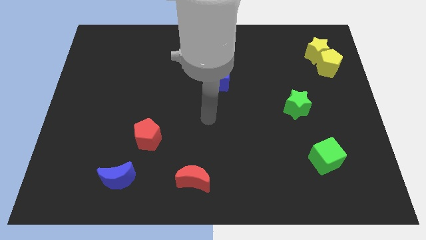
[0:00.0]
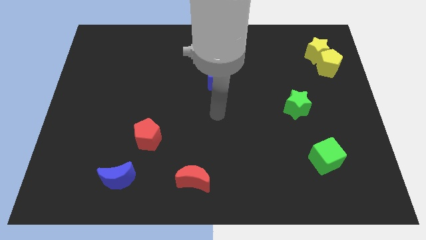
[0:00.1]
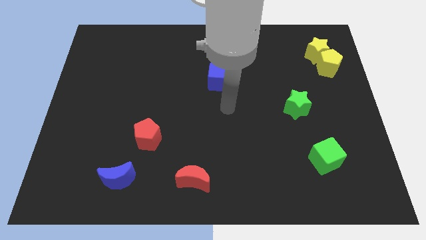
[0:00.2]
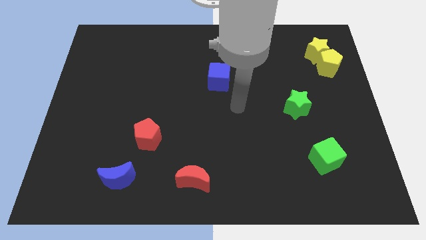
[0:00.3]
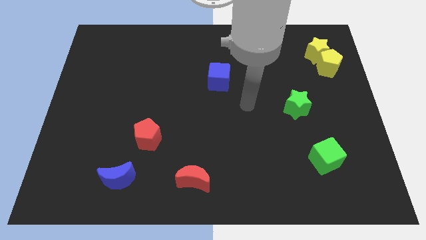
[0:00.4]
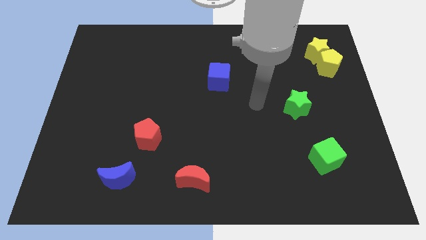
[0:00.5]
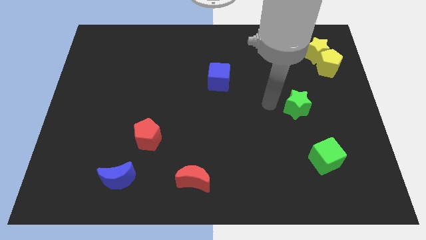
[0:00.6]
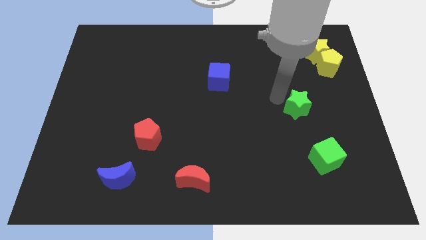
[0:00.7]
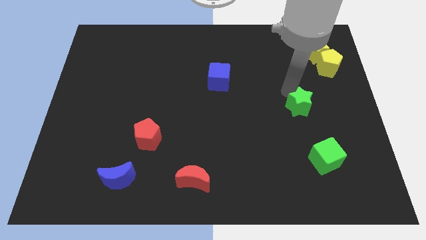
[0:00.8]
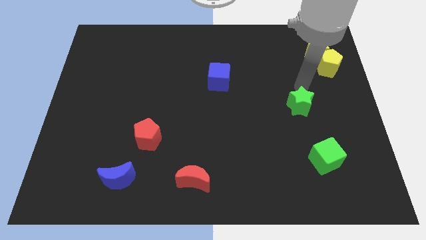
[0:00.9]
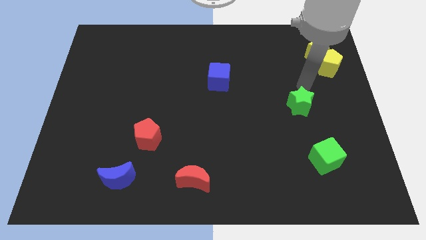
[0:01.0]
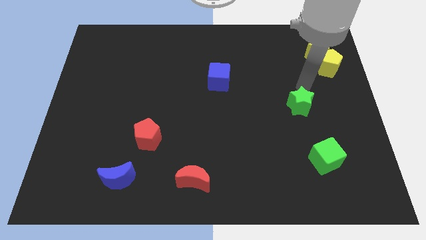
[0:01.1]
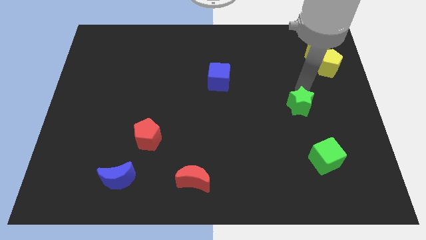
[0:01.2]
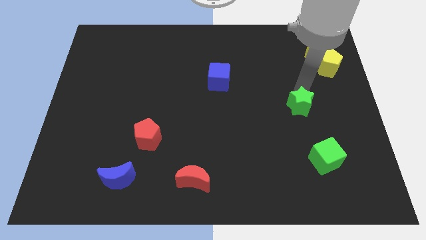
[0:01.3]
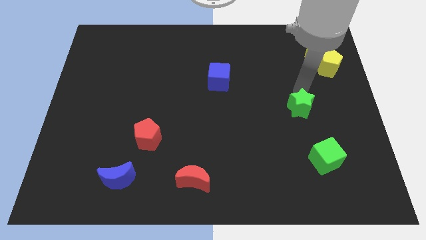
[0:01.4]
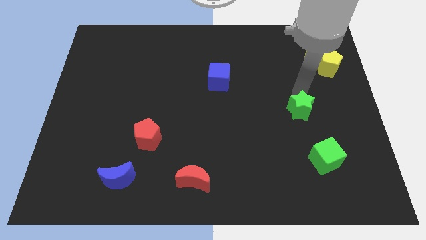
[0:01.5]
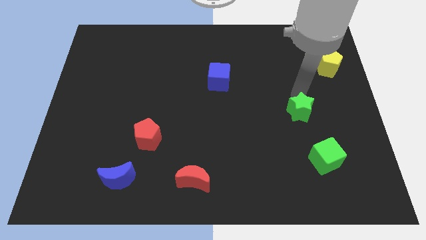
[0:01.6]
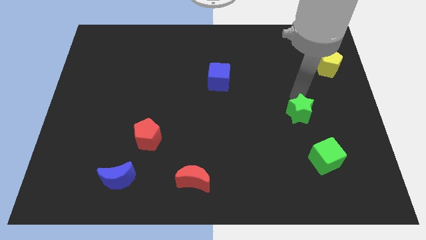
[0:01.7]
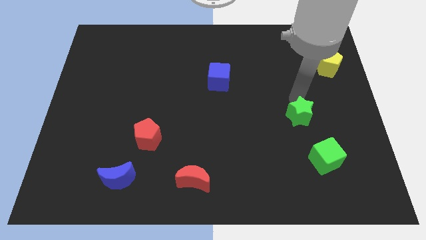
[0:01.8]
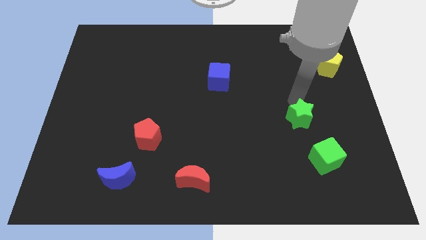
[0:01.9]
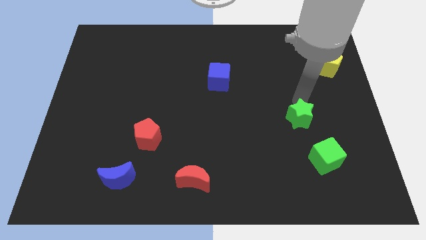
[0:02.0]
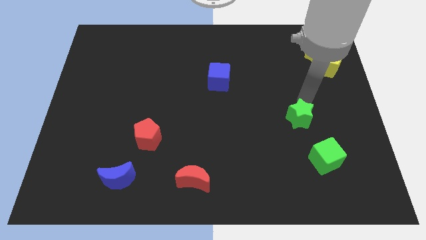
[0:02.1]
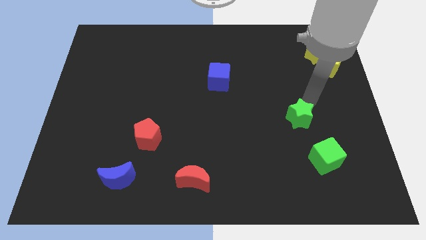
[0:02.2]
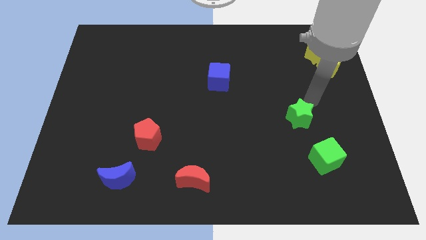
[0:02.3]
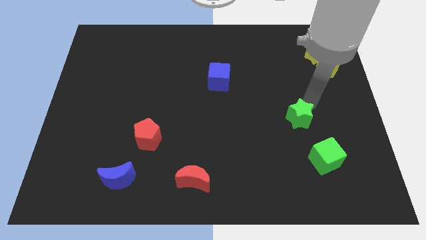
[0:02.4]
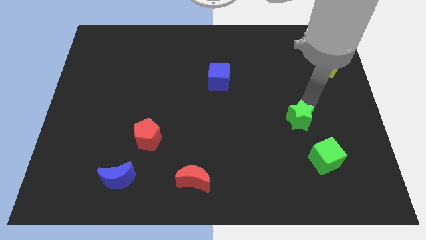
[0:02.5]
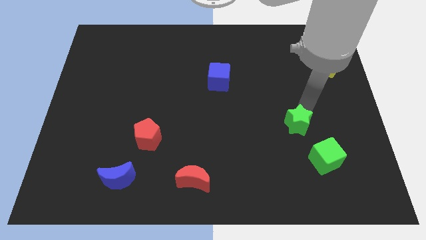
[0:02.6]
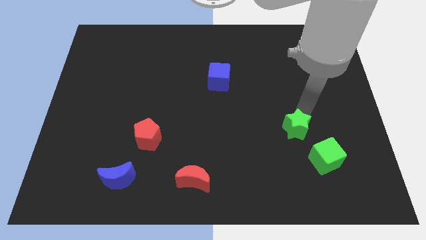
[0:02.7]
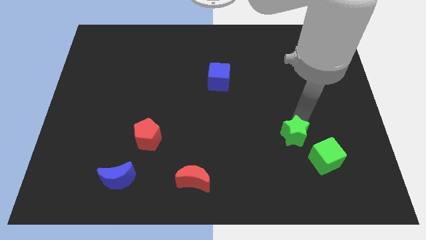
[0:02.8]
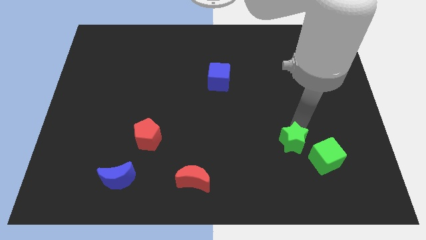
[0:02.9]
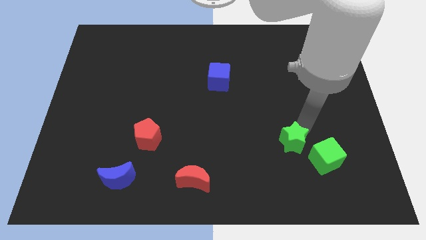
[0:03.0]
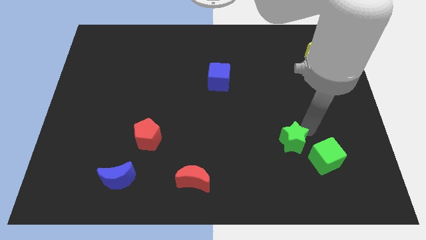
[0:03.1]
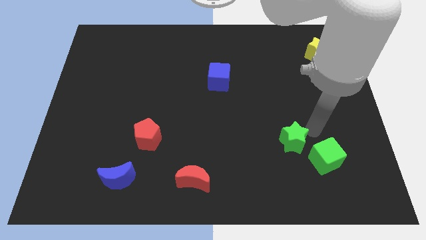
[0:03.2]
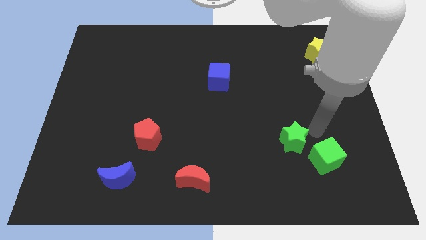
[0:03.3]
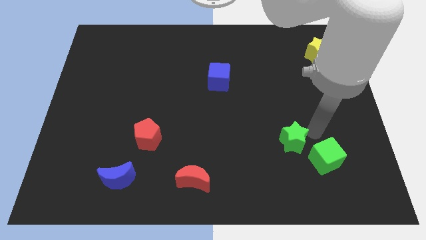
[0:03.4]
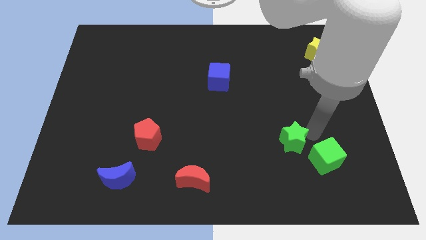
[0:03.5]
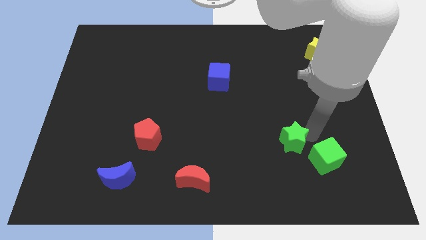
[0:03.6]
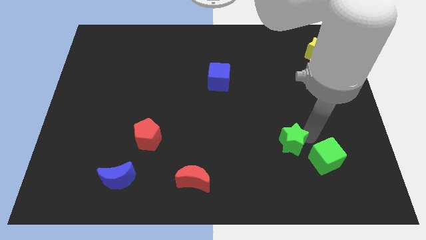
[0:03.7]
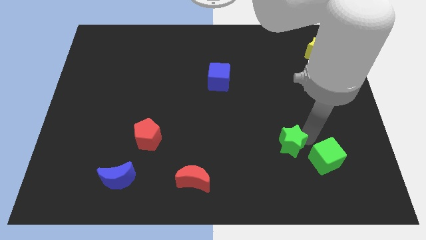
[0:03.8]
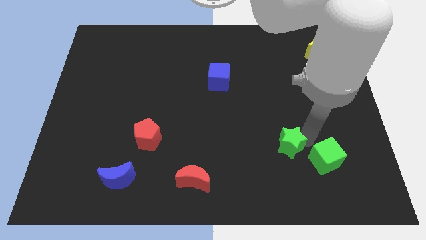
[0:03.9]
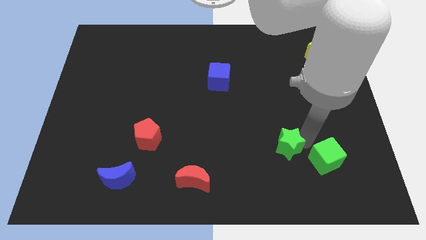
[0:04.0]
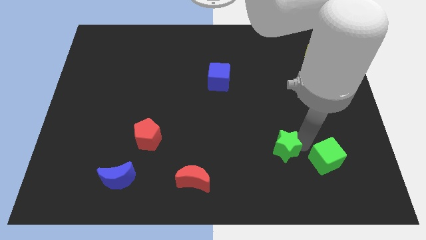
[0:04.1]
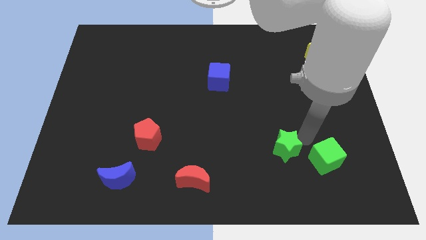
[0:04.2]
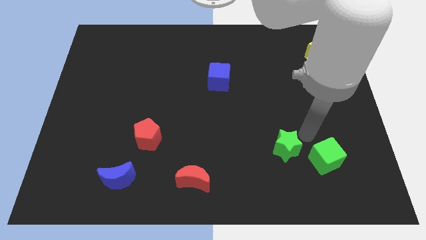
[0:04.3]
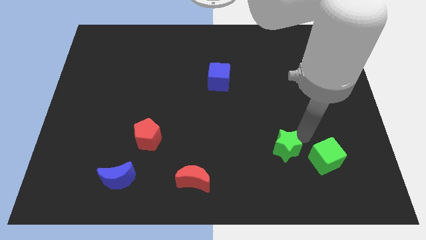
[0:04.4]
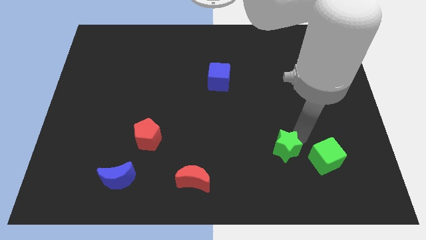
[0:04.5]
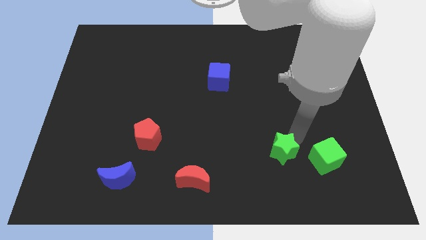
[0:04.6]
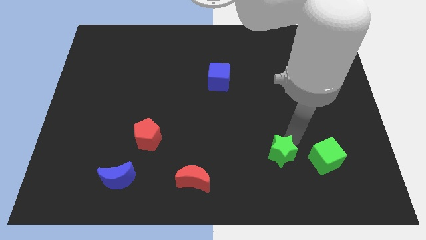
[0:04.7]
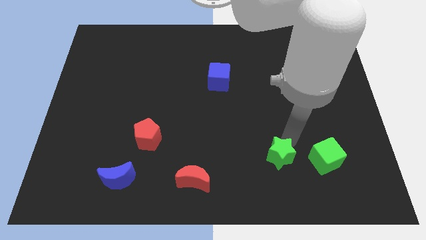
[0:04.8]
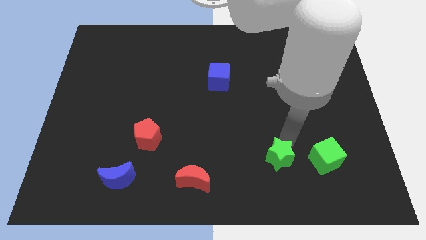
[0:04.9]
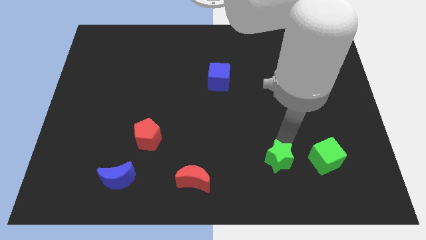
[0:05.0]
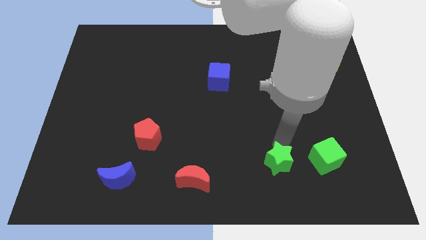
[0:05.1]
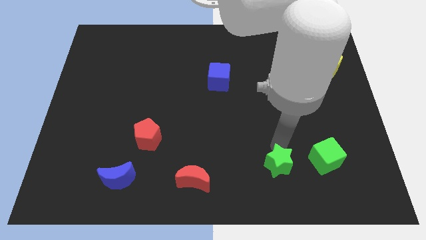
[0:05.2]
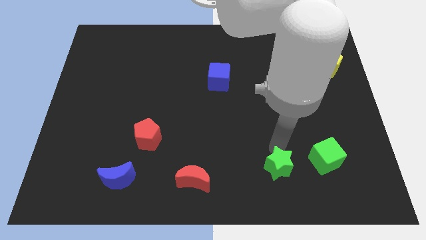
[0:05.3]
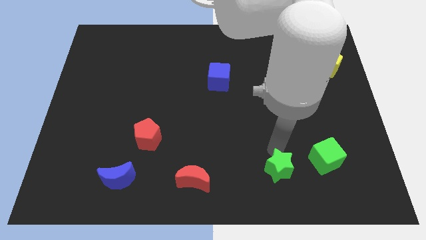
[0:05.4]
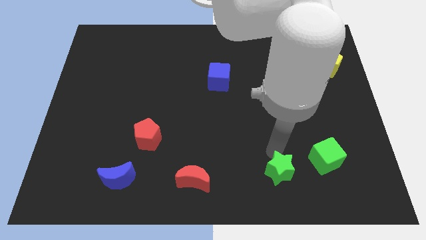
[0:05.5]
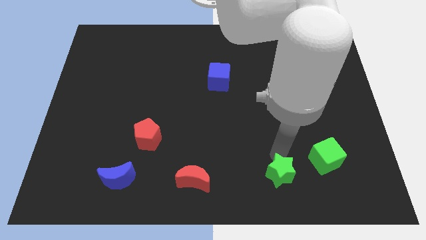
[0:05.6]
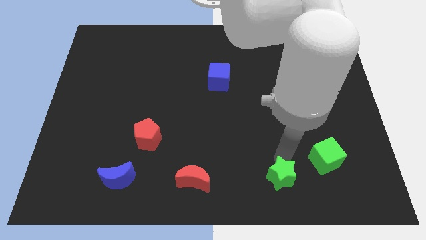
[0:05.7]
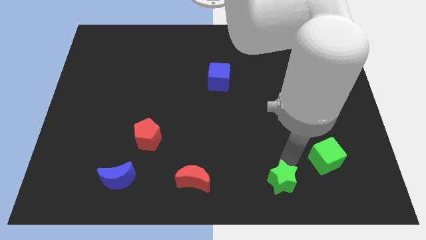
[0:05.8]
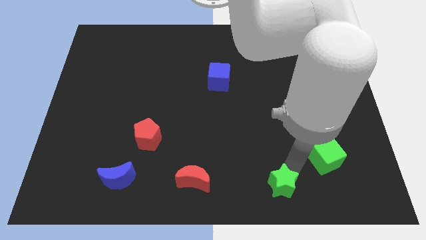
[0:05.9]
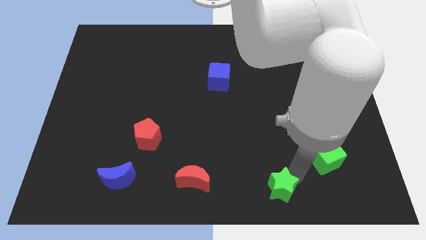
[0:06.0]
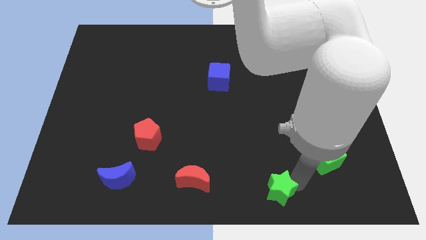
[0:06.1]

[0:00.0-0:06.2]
push the green star to the bottom
